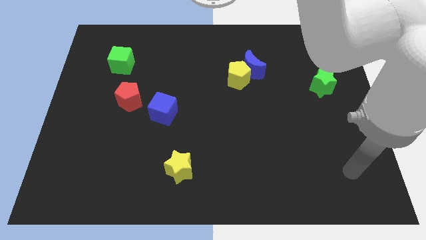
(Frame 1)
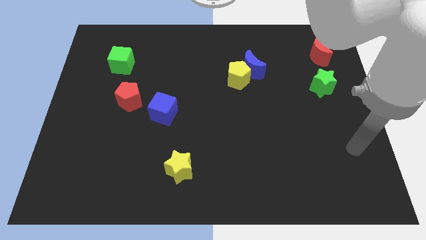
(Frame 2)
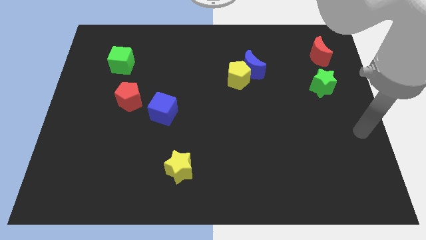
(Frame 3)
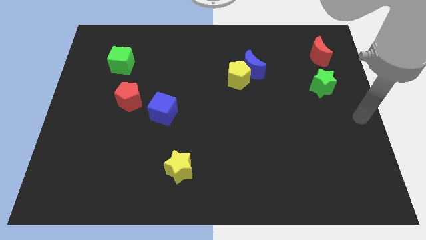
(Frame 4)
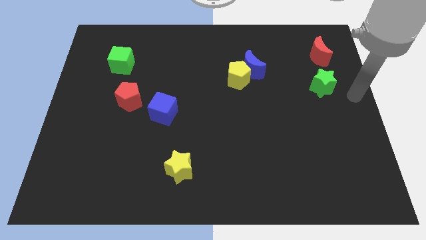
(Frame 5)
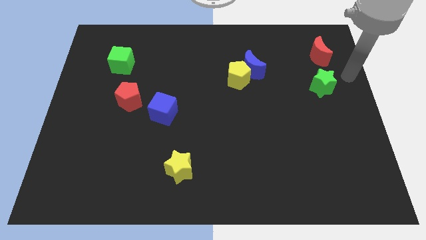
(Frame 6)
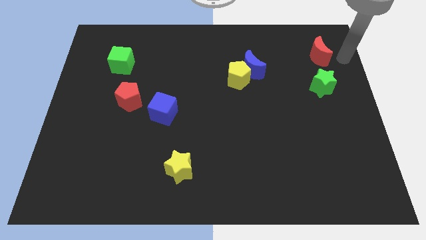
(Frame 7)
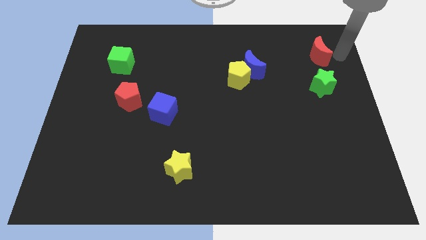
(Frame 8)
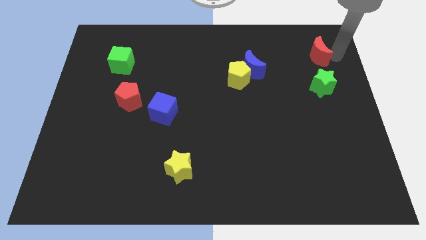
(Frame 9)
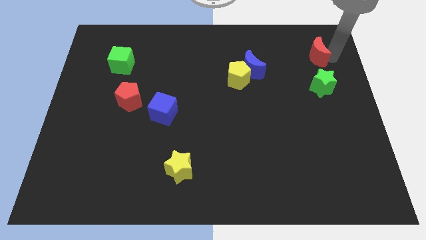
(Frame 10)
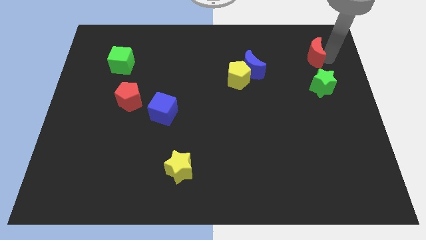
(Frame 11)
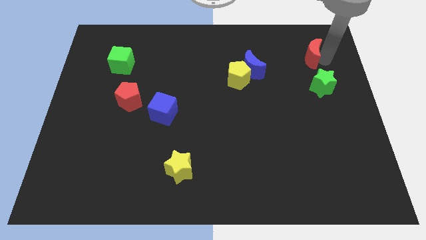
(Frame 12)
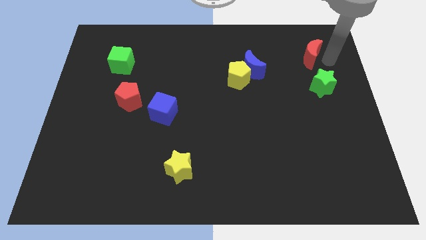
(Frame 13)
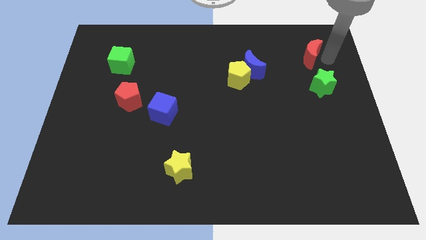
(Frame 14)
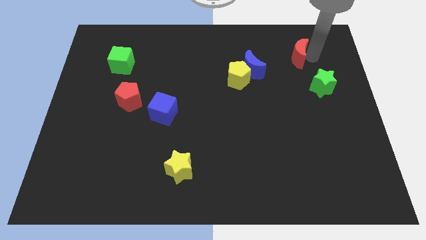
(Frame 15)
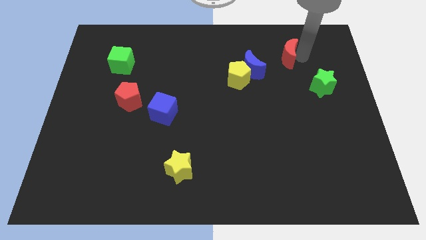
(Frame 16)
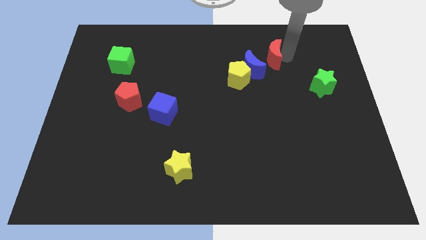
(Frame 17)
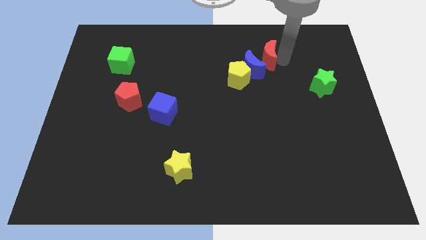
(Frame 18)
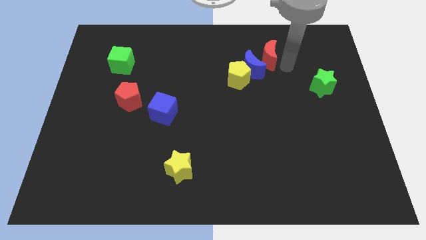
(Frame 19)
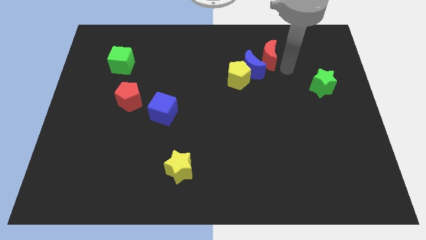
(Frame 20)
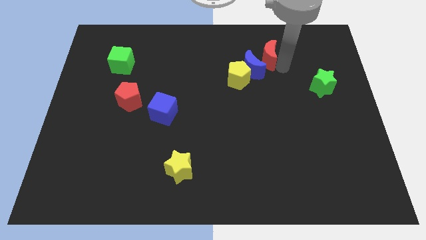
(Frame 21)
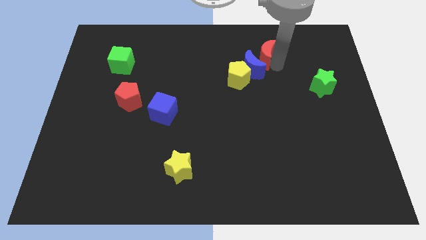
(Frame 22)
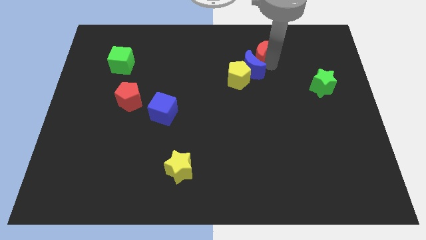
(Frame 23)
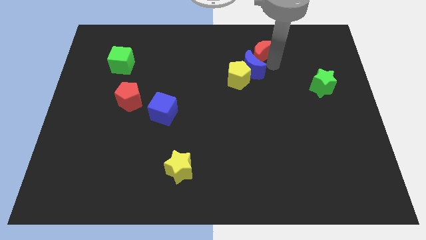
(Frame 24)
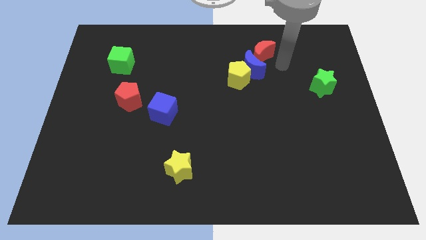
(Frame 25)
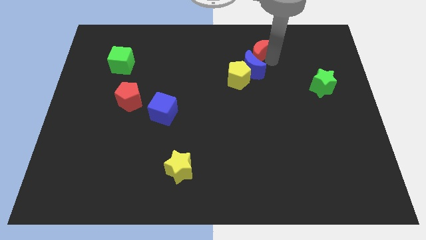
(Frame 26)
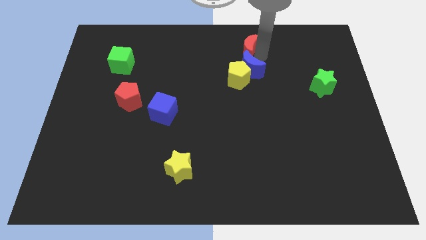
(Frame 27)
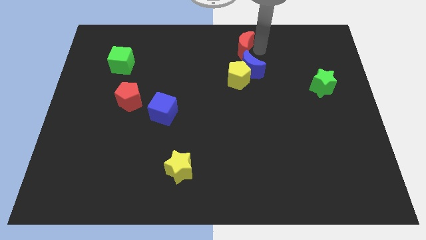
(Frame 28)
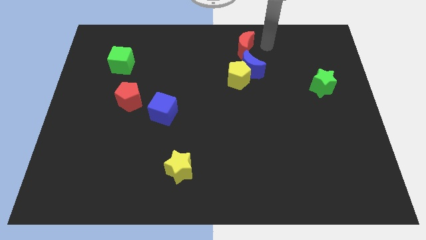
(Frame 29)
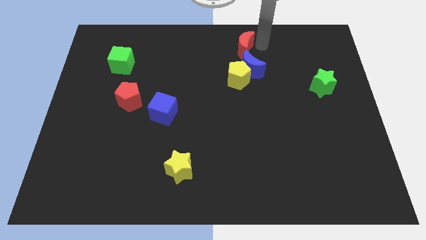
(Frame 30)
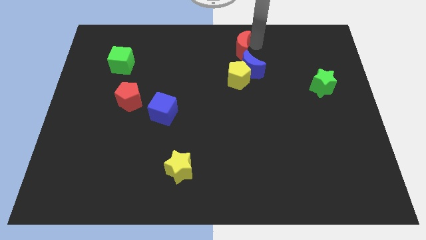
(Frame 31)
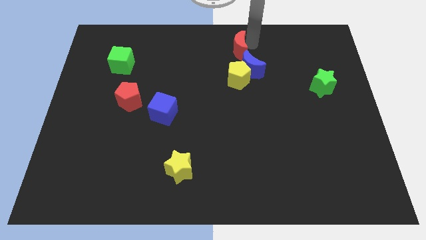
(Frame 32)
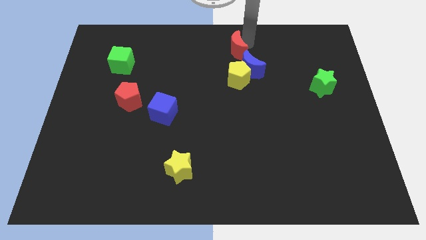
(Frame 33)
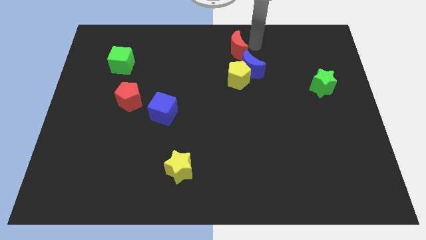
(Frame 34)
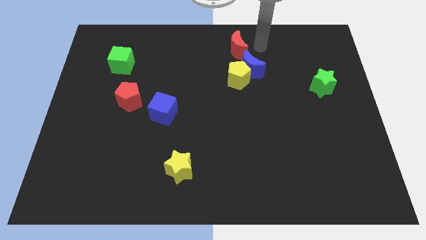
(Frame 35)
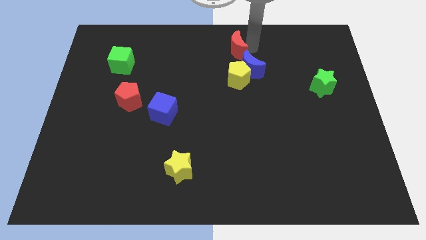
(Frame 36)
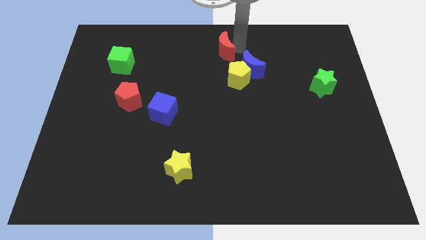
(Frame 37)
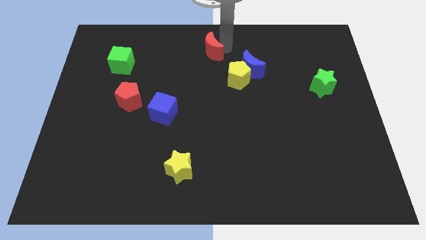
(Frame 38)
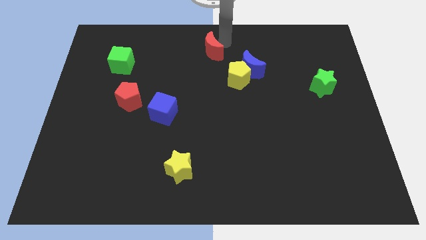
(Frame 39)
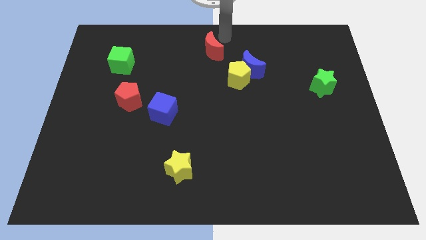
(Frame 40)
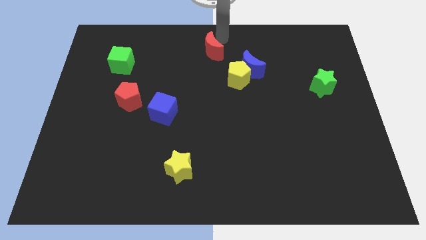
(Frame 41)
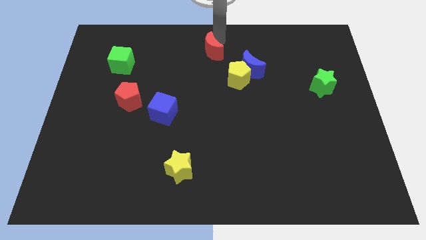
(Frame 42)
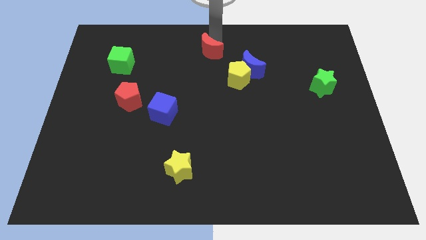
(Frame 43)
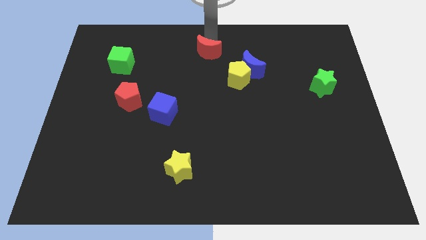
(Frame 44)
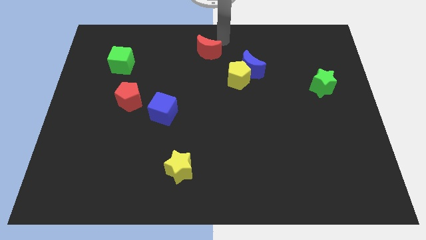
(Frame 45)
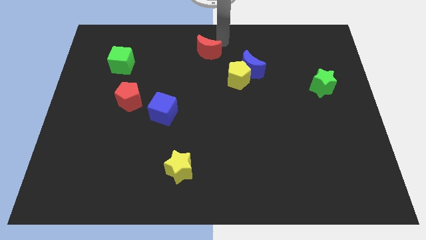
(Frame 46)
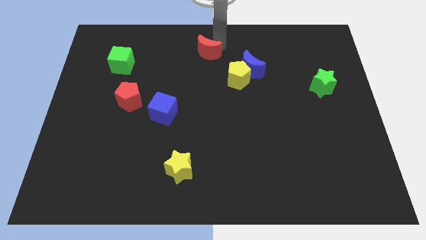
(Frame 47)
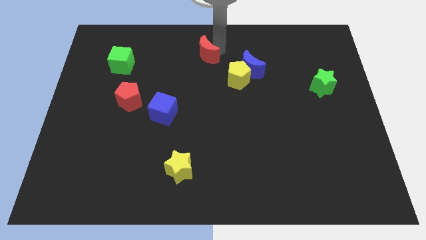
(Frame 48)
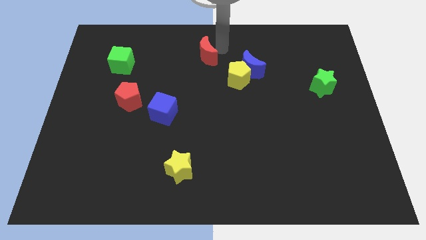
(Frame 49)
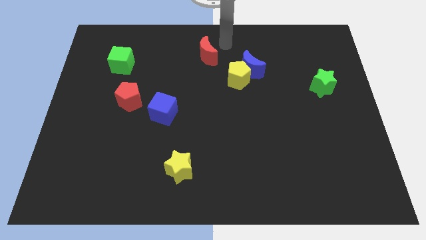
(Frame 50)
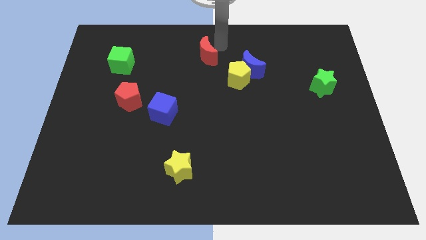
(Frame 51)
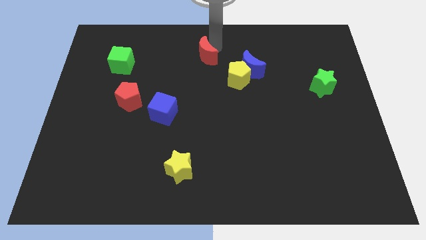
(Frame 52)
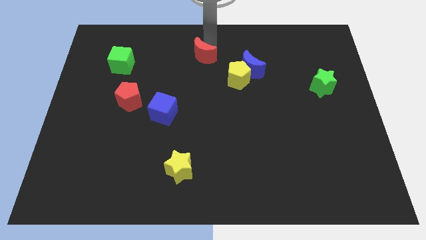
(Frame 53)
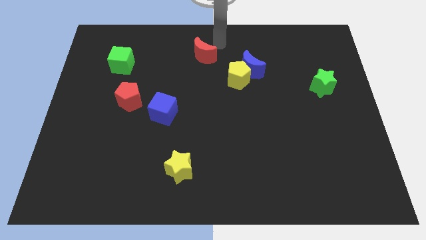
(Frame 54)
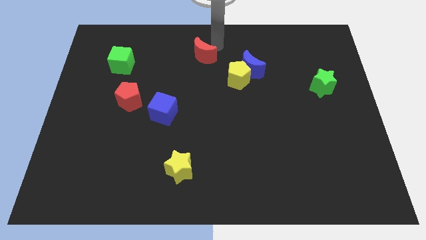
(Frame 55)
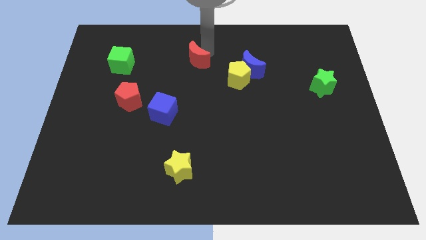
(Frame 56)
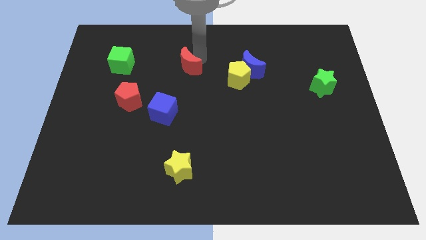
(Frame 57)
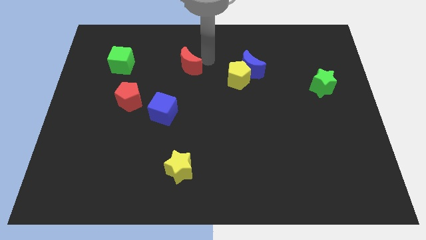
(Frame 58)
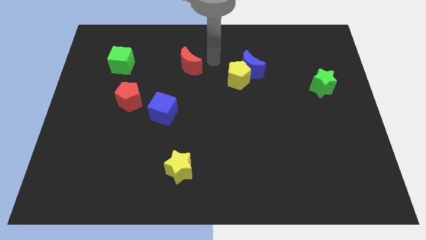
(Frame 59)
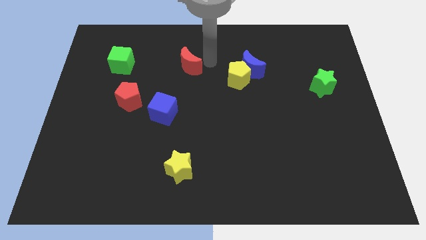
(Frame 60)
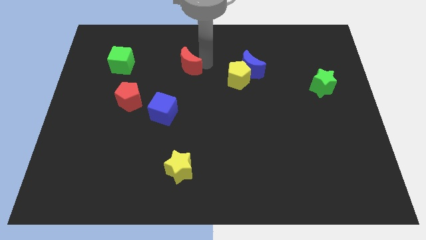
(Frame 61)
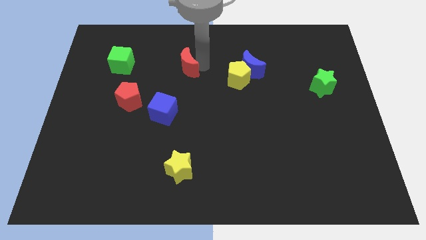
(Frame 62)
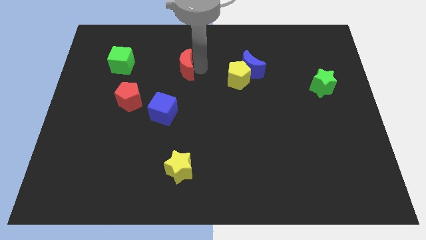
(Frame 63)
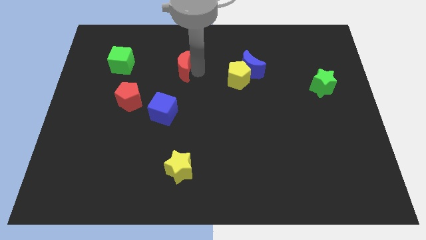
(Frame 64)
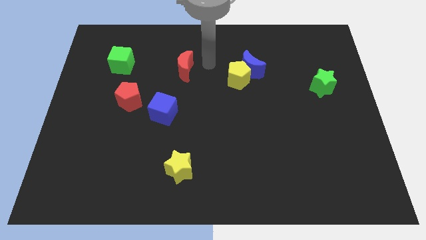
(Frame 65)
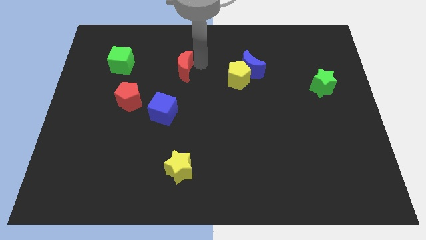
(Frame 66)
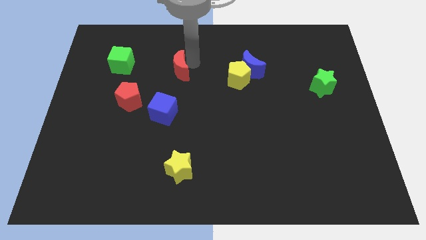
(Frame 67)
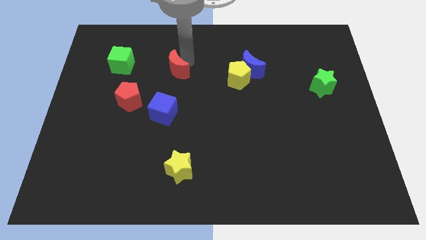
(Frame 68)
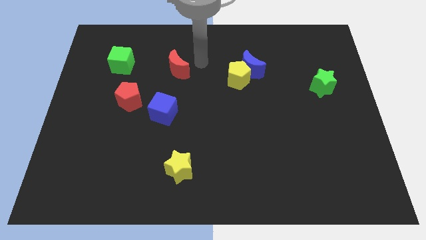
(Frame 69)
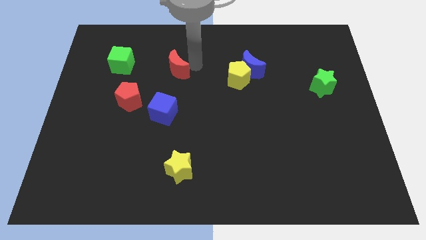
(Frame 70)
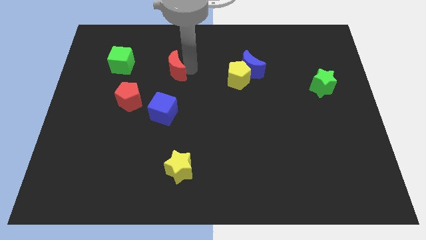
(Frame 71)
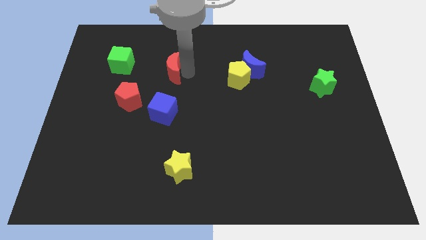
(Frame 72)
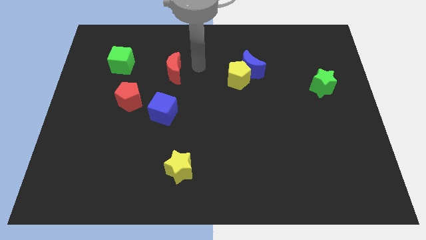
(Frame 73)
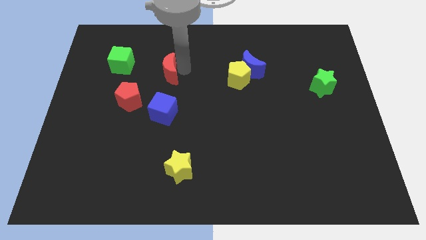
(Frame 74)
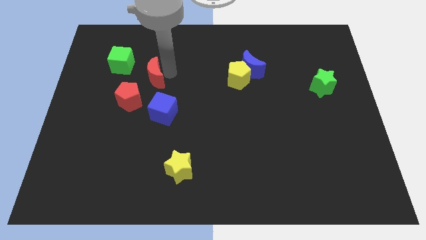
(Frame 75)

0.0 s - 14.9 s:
push the red moon to the bottom right of the green cube
